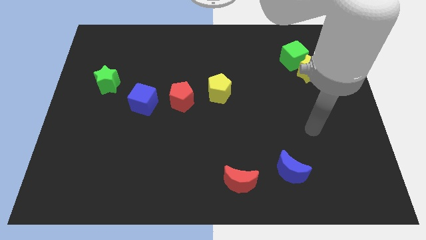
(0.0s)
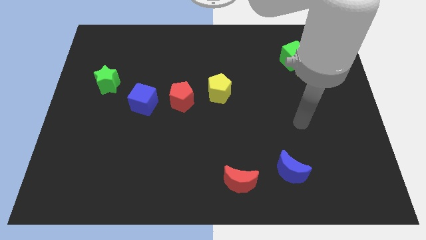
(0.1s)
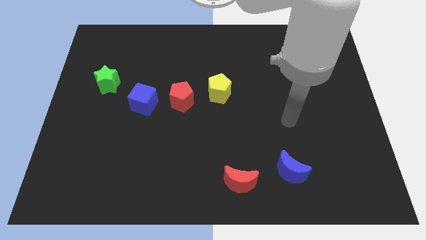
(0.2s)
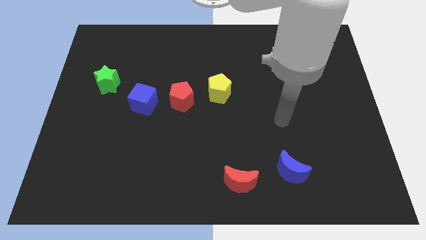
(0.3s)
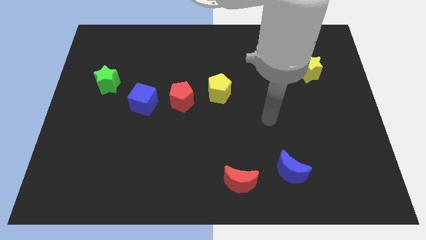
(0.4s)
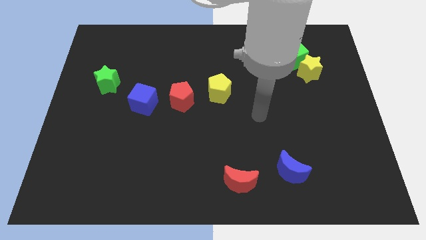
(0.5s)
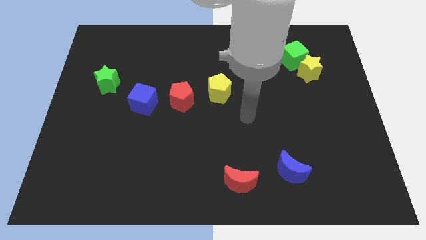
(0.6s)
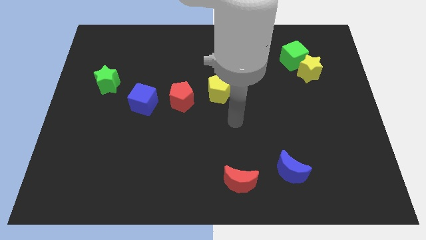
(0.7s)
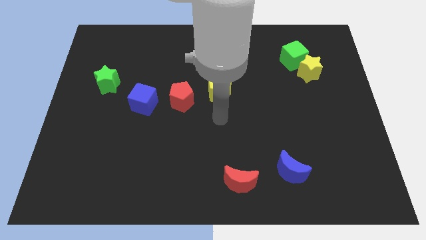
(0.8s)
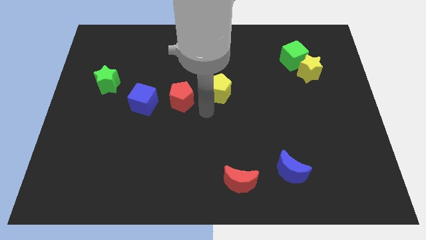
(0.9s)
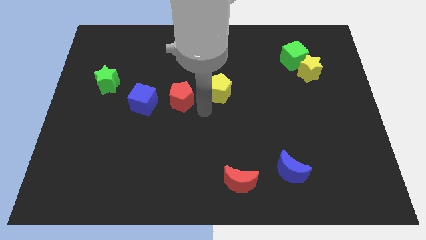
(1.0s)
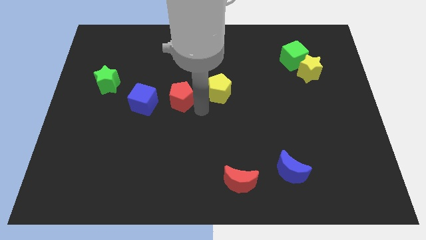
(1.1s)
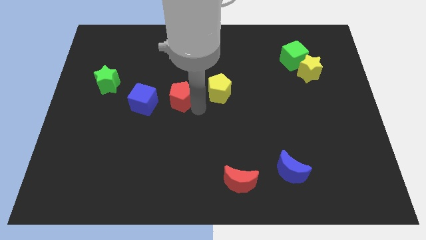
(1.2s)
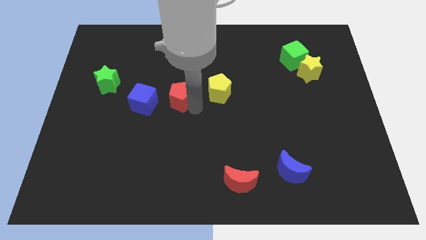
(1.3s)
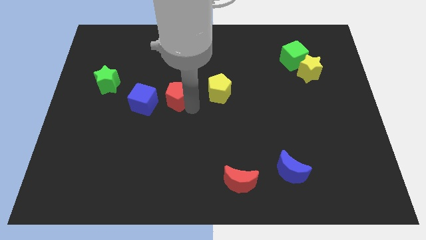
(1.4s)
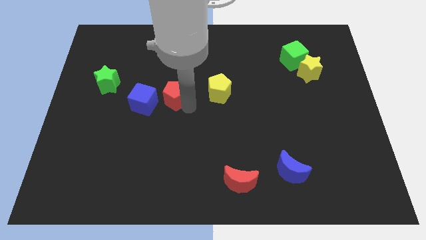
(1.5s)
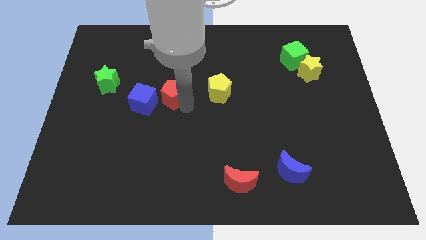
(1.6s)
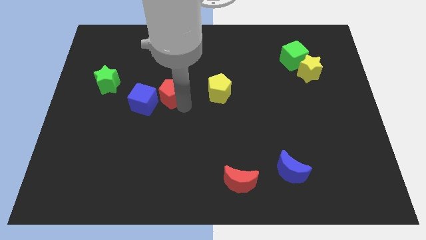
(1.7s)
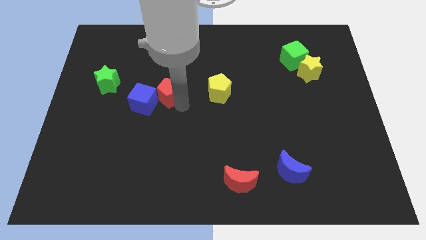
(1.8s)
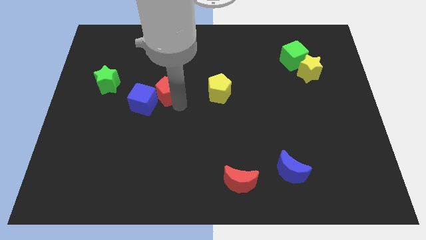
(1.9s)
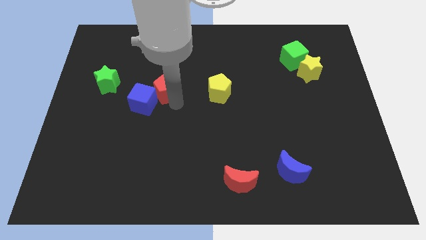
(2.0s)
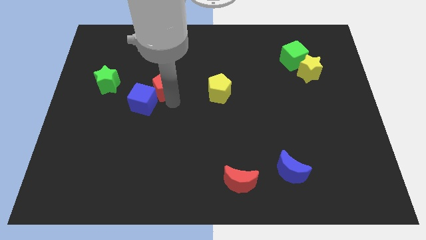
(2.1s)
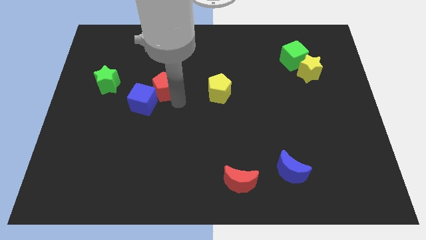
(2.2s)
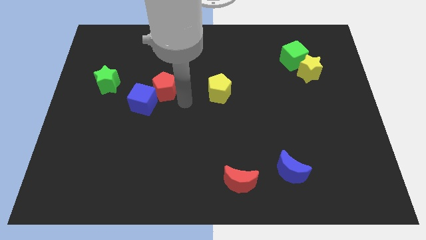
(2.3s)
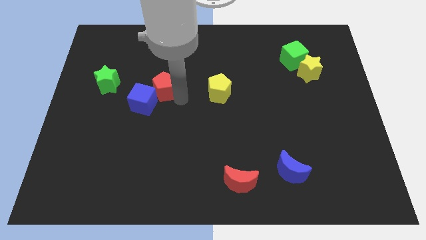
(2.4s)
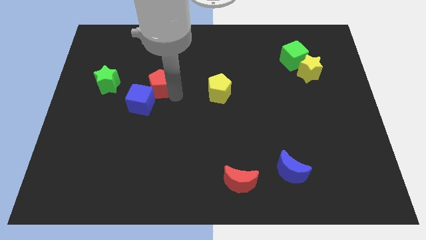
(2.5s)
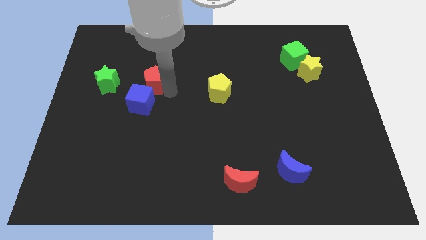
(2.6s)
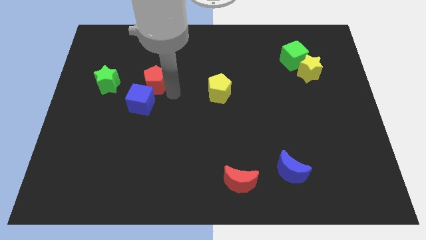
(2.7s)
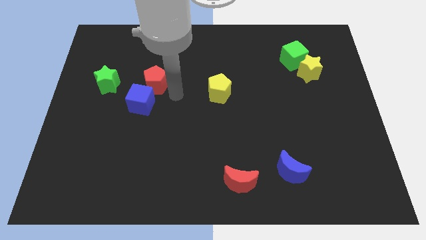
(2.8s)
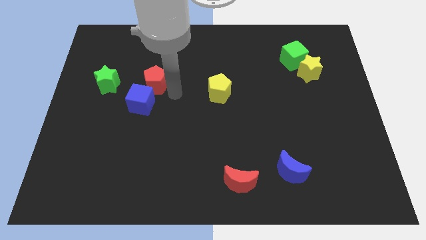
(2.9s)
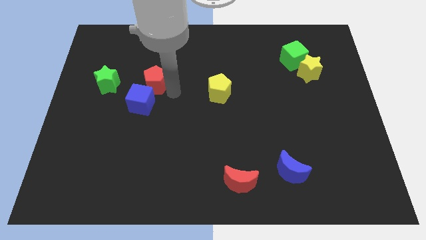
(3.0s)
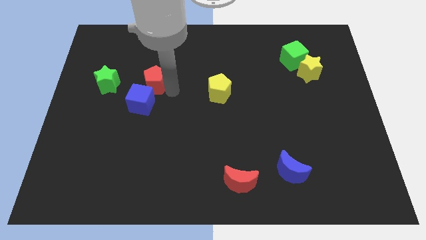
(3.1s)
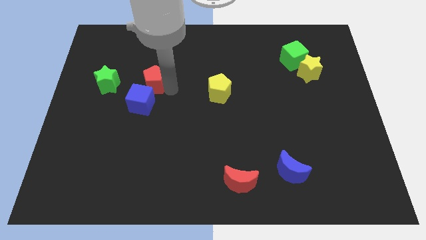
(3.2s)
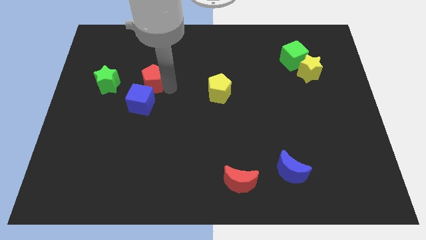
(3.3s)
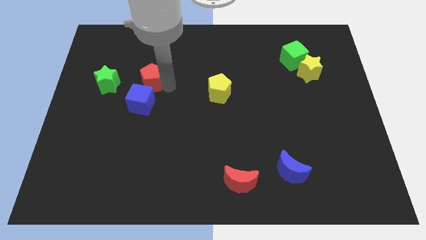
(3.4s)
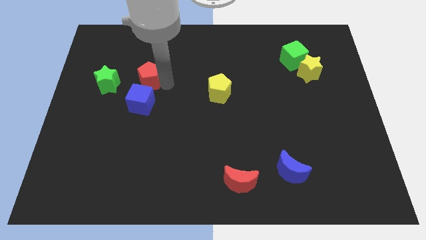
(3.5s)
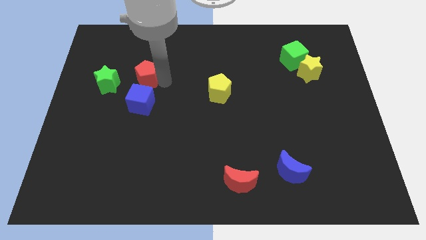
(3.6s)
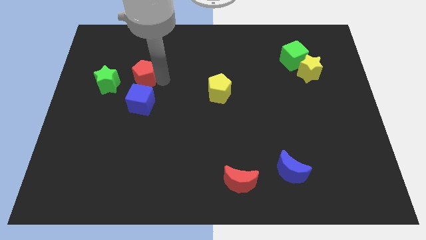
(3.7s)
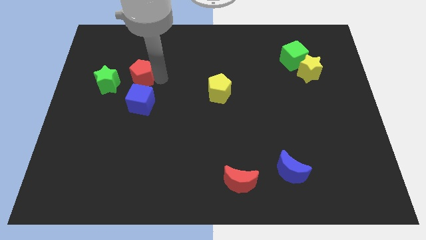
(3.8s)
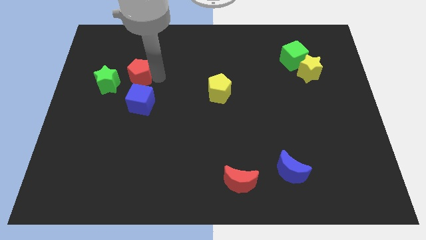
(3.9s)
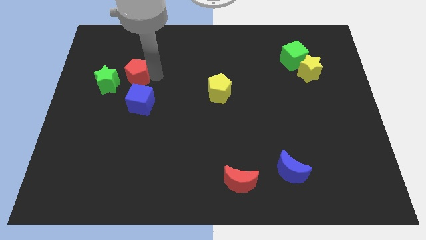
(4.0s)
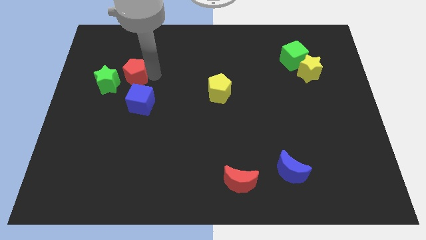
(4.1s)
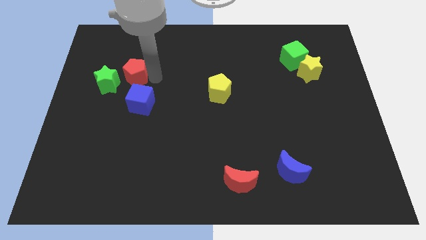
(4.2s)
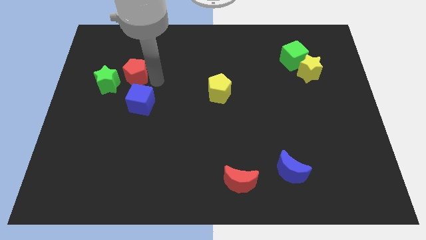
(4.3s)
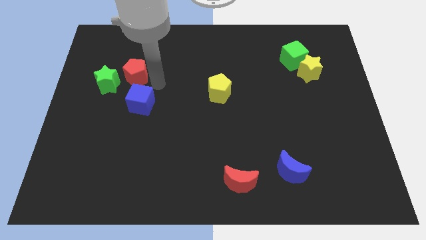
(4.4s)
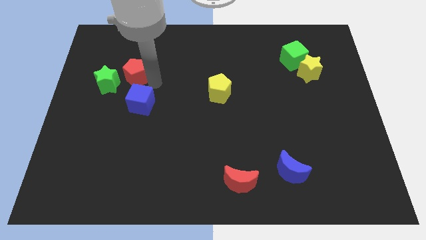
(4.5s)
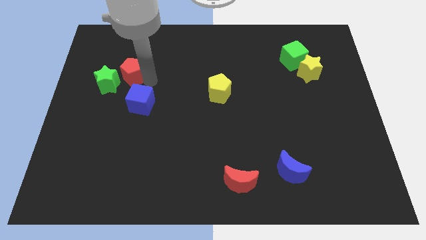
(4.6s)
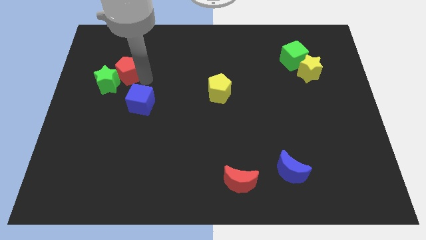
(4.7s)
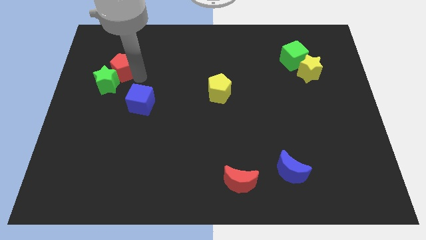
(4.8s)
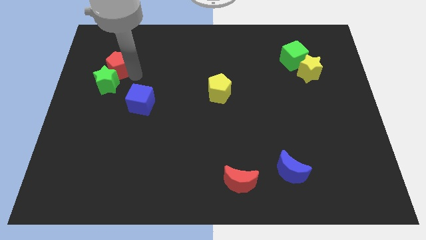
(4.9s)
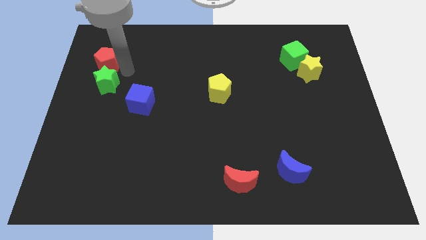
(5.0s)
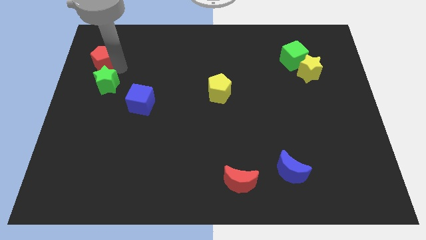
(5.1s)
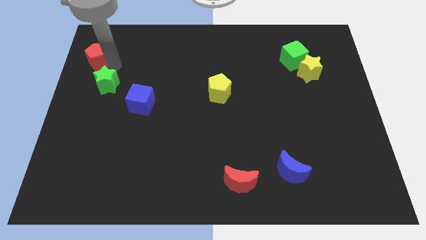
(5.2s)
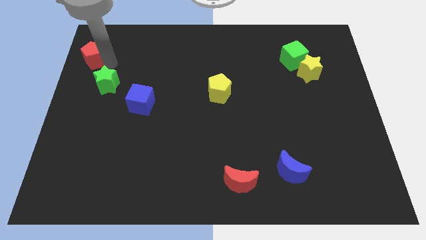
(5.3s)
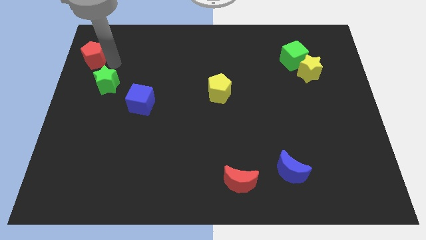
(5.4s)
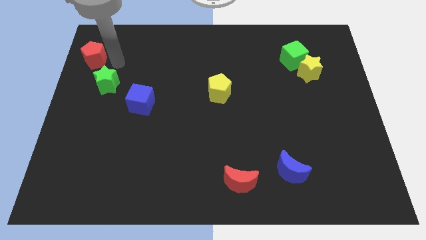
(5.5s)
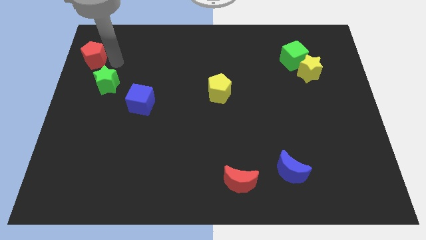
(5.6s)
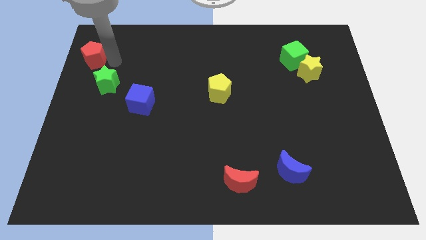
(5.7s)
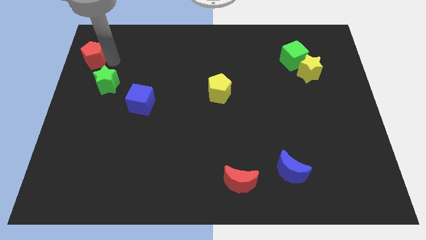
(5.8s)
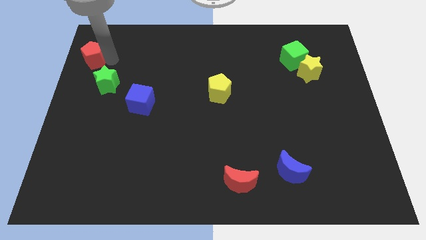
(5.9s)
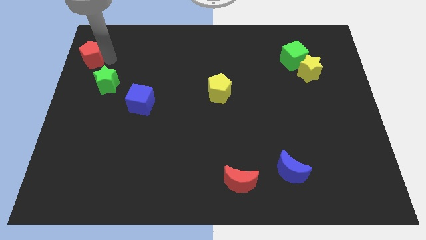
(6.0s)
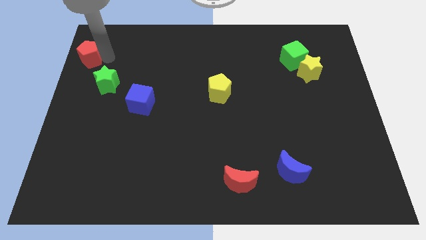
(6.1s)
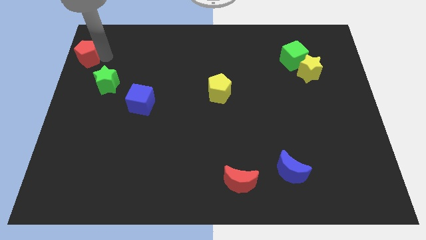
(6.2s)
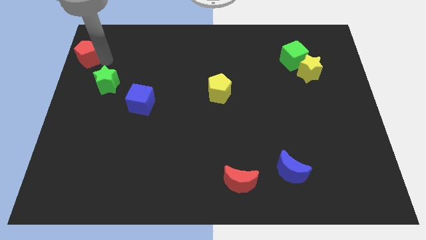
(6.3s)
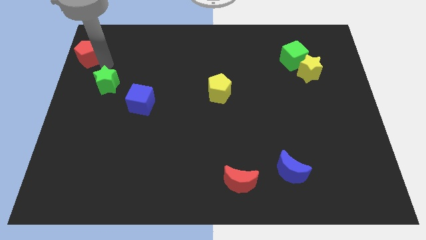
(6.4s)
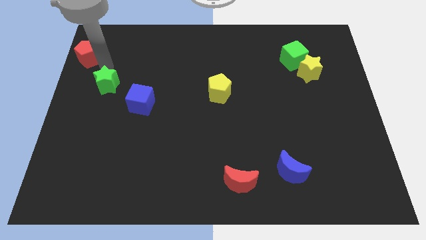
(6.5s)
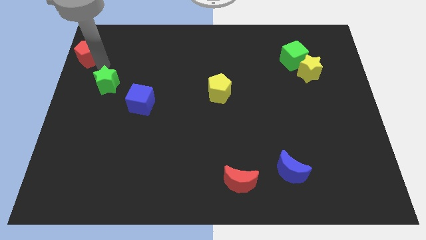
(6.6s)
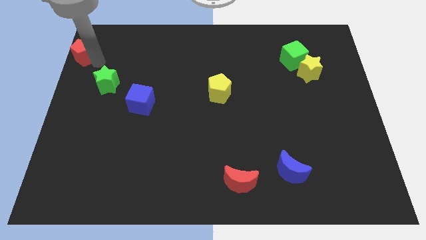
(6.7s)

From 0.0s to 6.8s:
move the red pentagon to the upper left corner

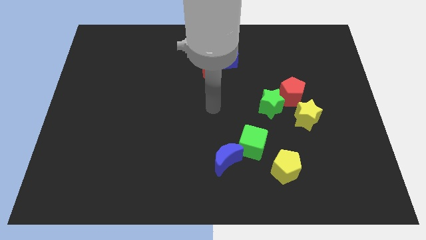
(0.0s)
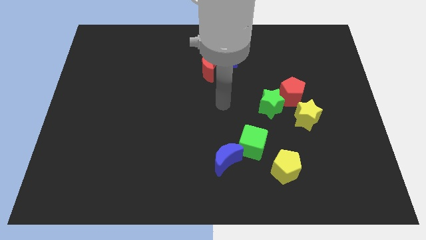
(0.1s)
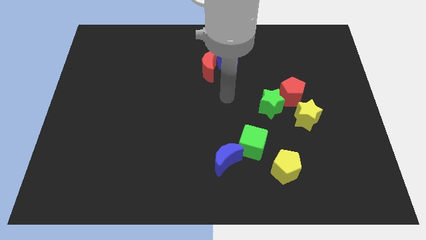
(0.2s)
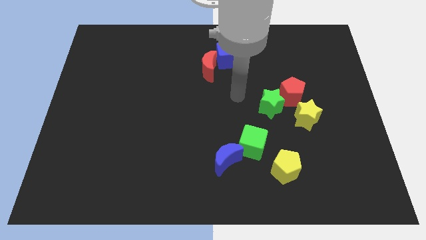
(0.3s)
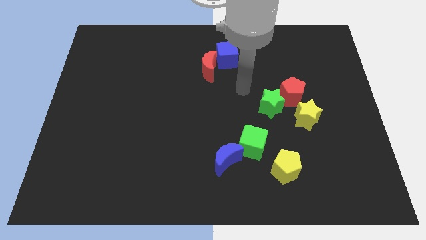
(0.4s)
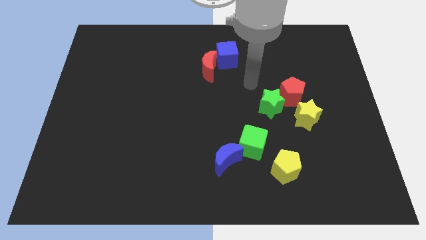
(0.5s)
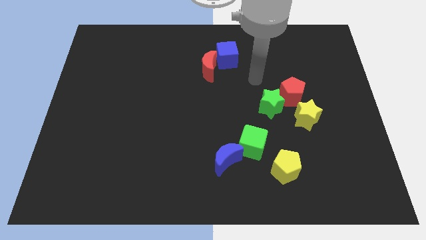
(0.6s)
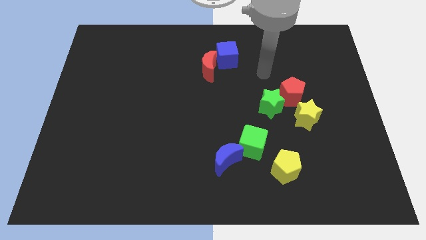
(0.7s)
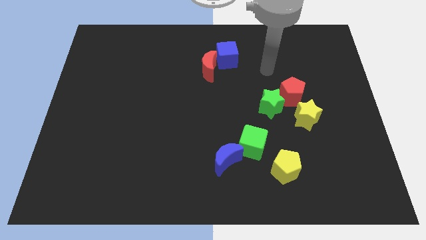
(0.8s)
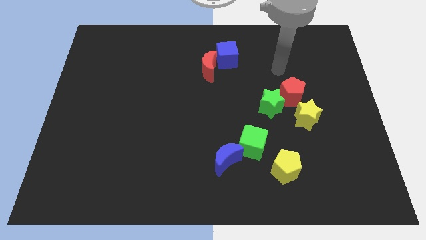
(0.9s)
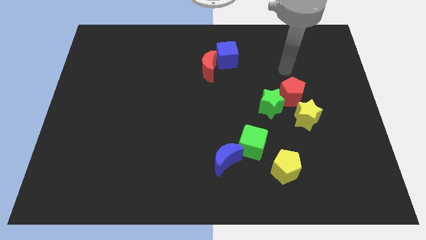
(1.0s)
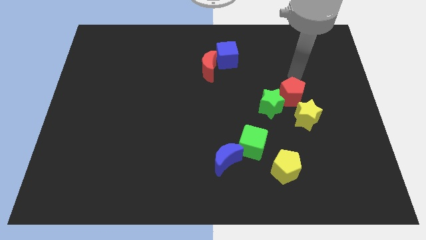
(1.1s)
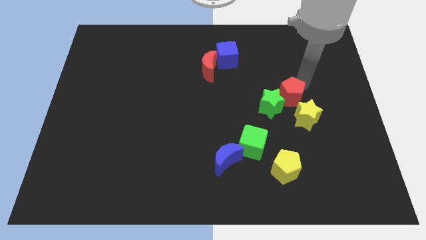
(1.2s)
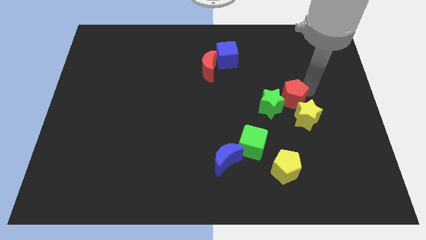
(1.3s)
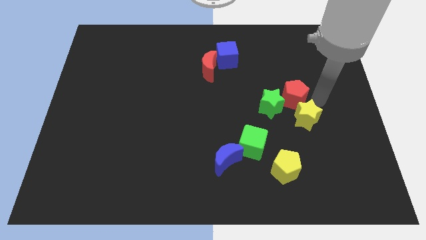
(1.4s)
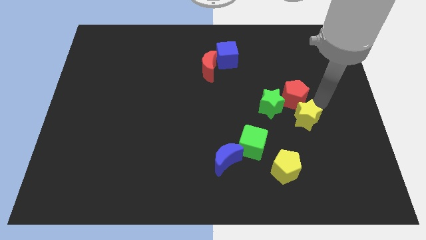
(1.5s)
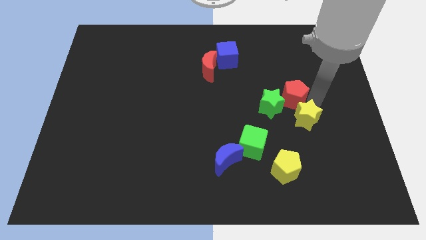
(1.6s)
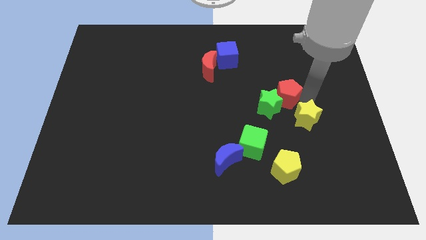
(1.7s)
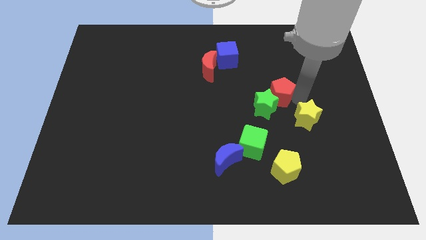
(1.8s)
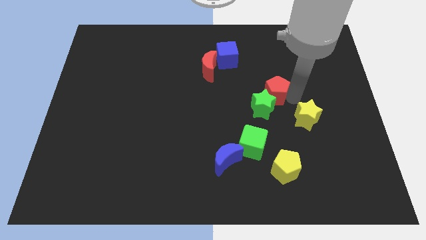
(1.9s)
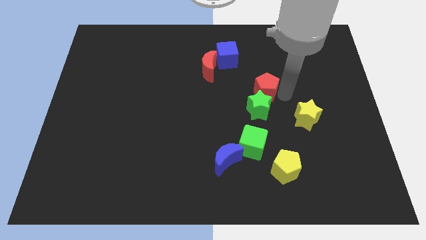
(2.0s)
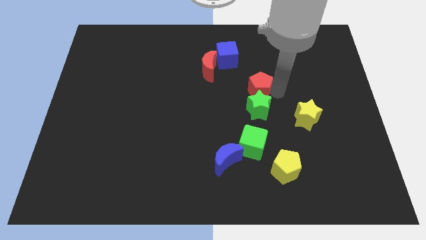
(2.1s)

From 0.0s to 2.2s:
push the red pentagon to the center of the board
